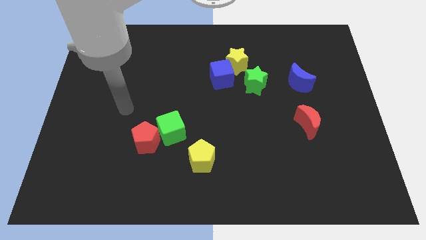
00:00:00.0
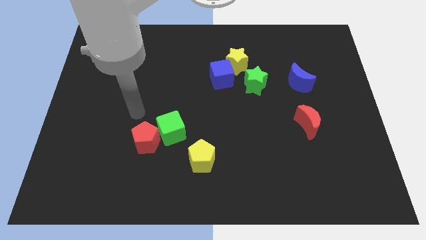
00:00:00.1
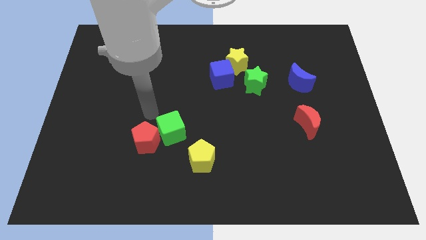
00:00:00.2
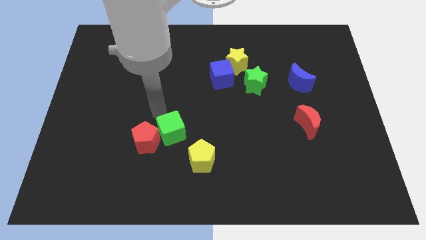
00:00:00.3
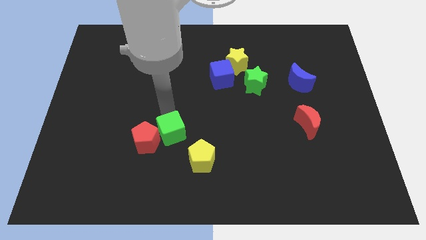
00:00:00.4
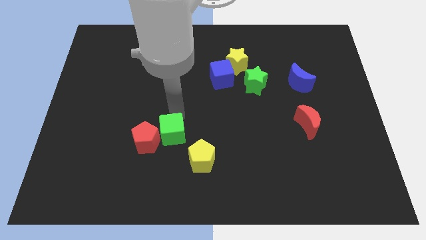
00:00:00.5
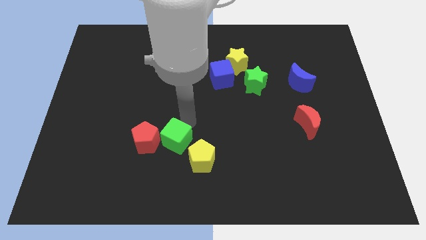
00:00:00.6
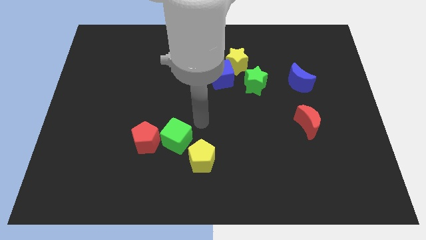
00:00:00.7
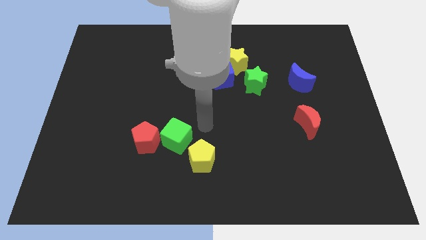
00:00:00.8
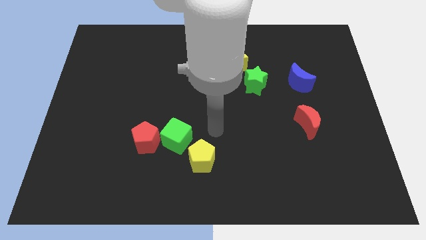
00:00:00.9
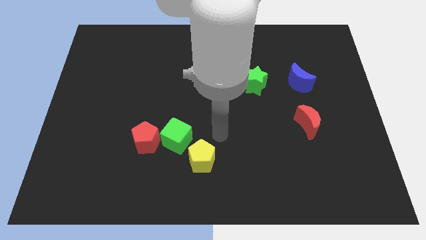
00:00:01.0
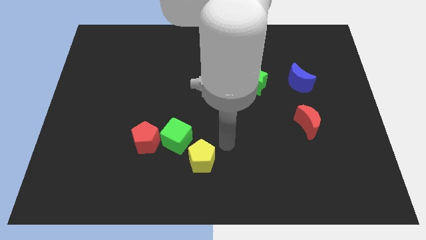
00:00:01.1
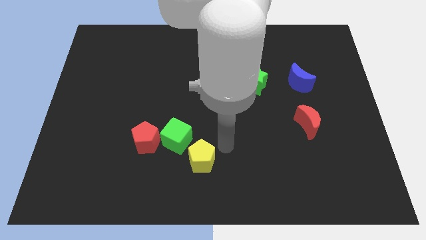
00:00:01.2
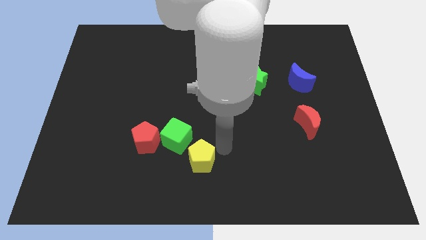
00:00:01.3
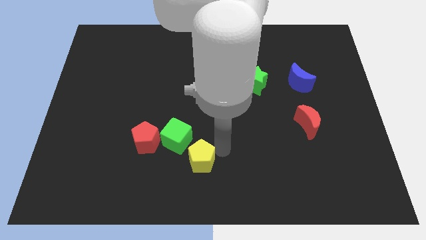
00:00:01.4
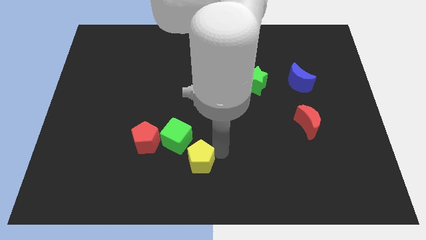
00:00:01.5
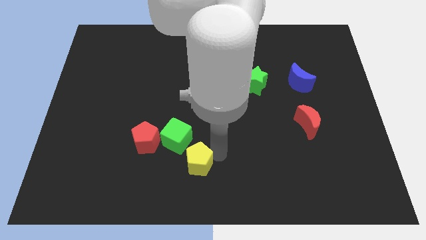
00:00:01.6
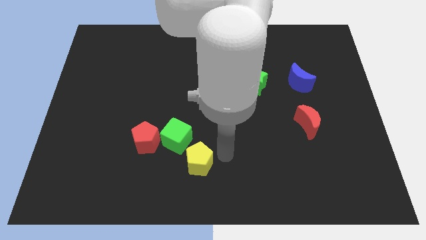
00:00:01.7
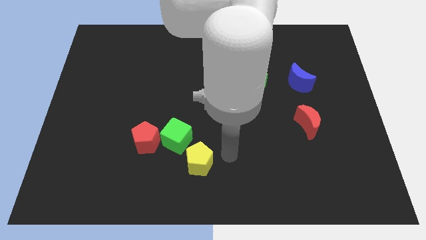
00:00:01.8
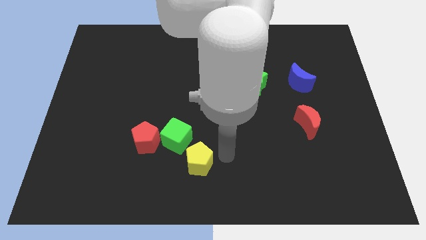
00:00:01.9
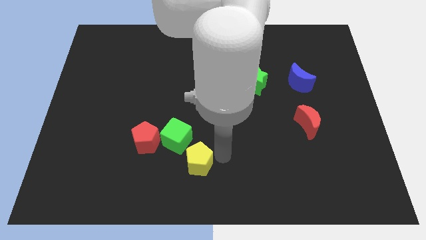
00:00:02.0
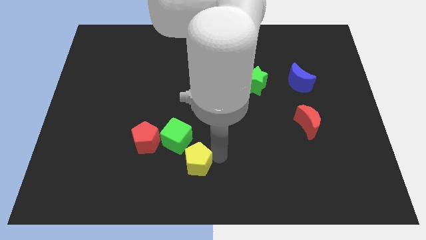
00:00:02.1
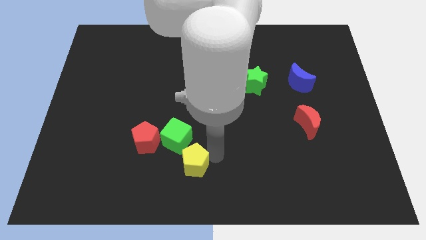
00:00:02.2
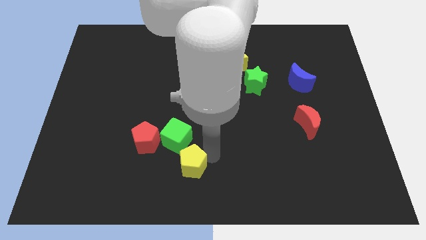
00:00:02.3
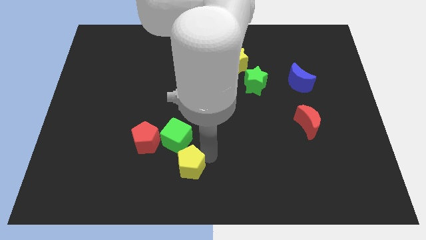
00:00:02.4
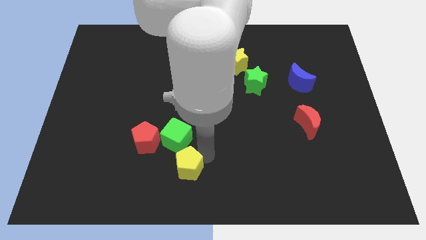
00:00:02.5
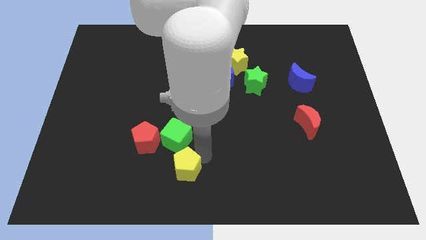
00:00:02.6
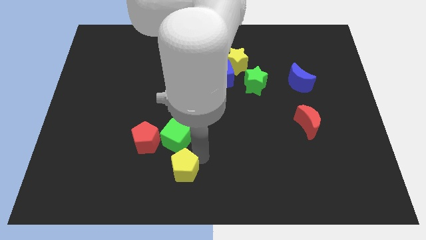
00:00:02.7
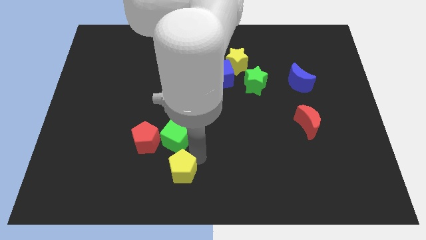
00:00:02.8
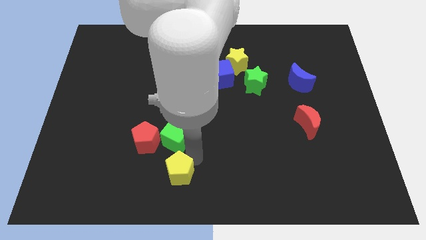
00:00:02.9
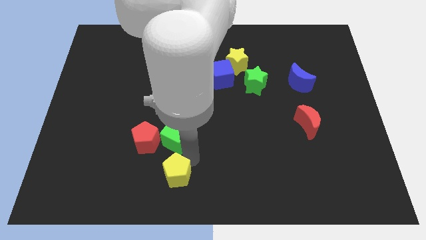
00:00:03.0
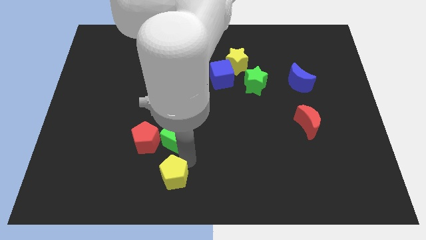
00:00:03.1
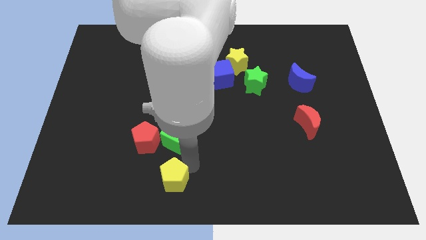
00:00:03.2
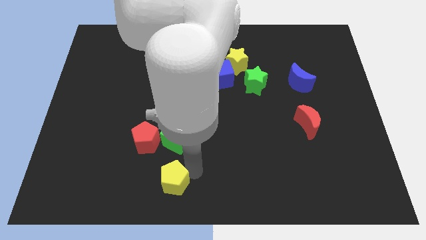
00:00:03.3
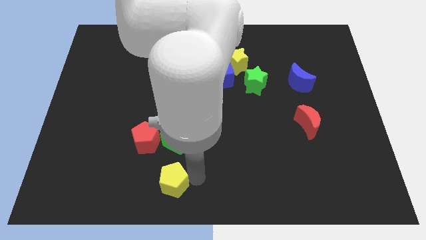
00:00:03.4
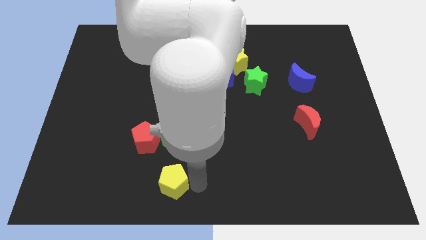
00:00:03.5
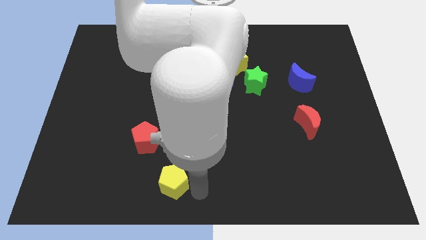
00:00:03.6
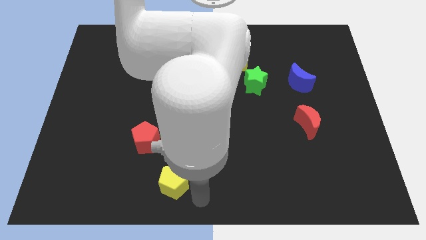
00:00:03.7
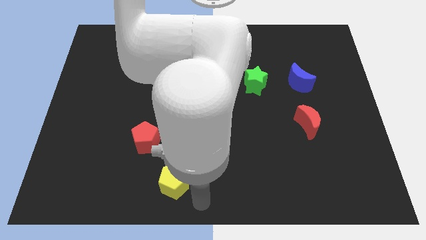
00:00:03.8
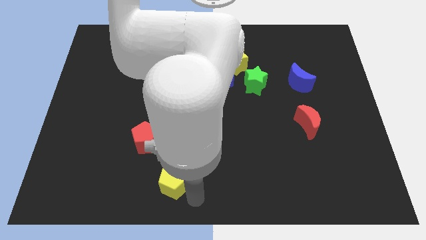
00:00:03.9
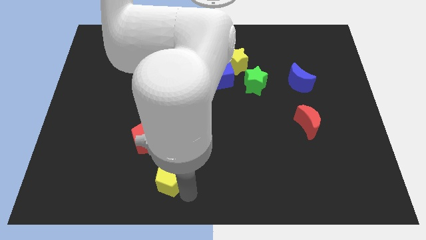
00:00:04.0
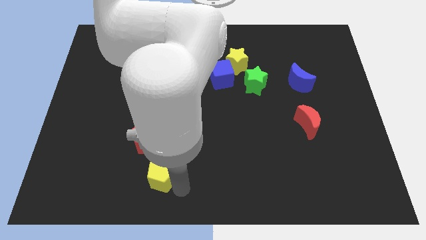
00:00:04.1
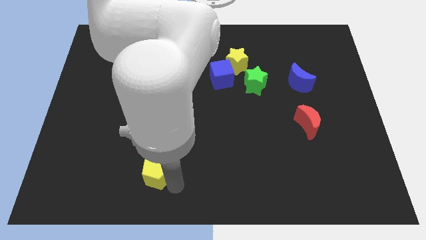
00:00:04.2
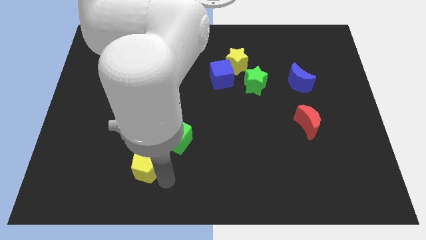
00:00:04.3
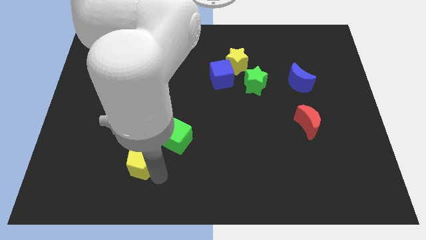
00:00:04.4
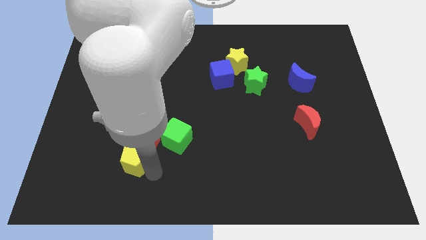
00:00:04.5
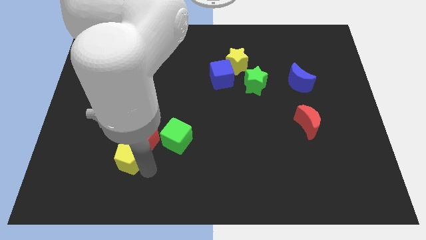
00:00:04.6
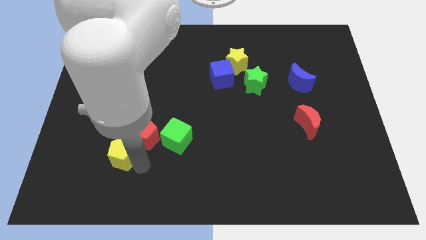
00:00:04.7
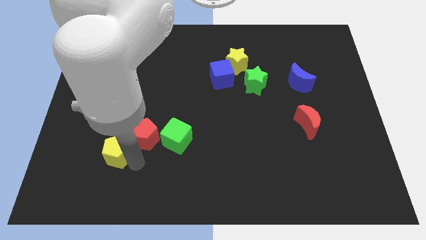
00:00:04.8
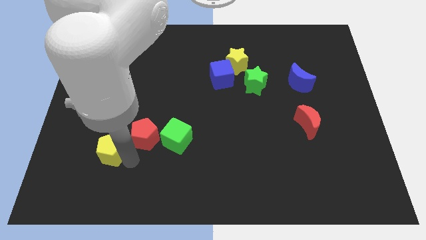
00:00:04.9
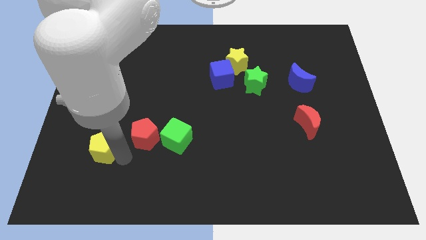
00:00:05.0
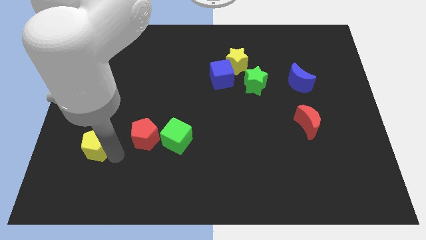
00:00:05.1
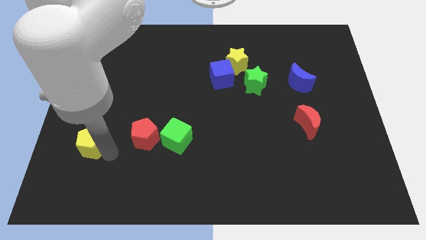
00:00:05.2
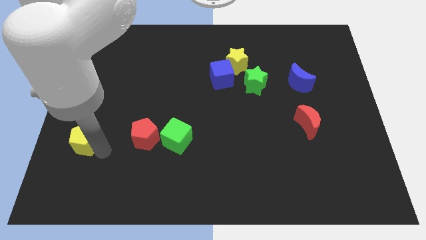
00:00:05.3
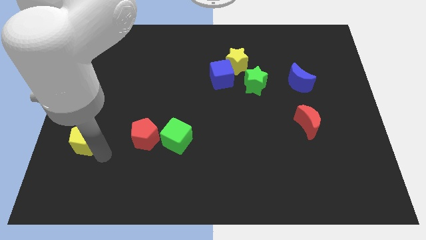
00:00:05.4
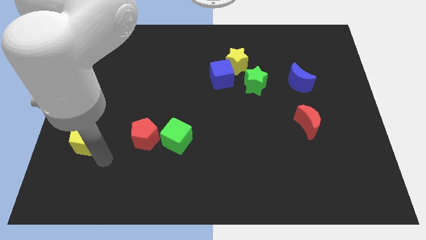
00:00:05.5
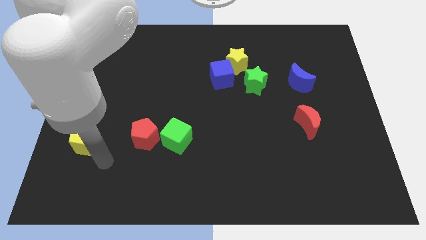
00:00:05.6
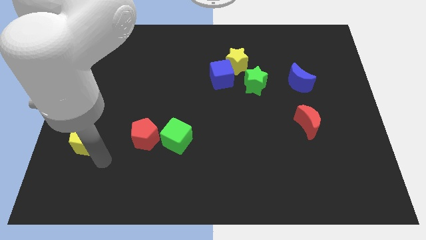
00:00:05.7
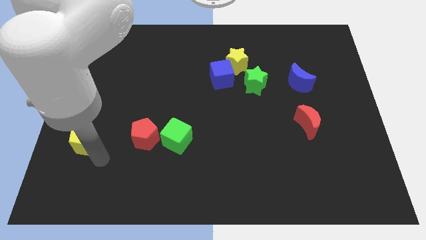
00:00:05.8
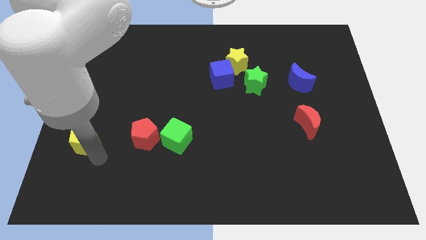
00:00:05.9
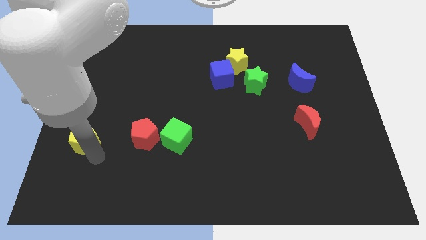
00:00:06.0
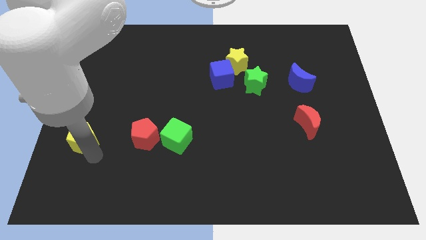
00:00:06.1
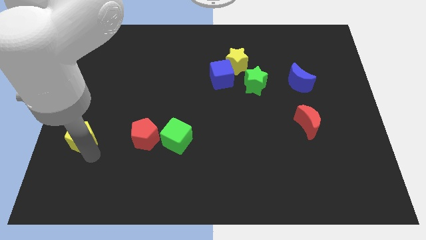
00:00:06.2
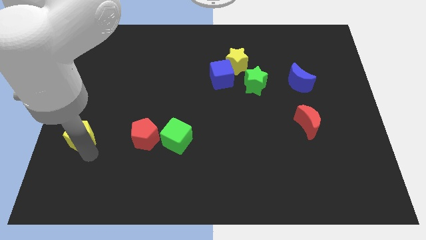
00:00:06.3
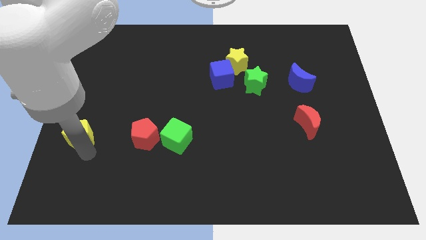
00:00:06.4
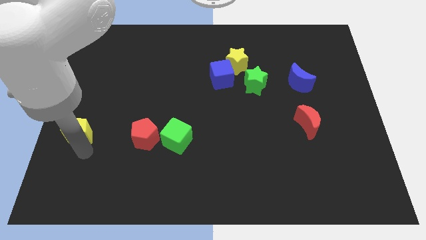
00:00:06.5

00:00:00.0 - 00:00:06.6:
slide the yellow pentagon to the center left
